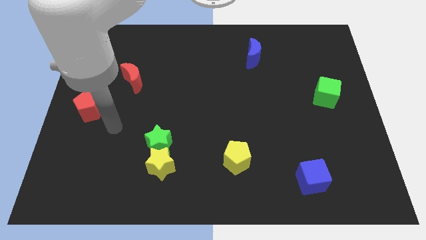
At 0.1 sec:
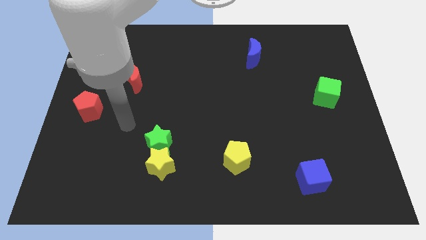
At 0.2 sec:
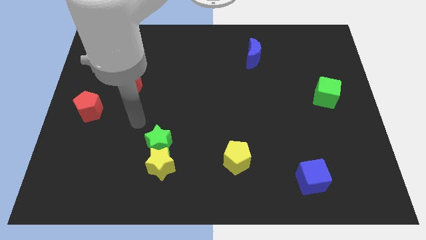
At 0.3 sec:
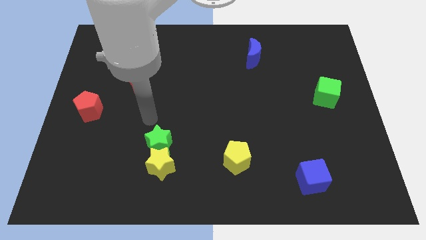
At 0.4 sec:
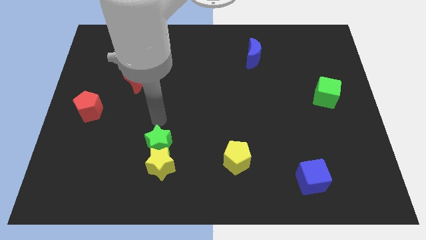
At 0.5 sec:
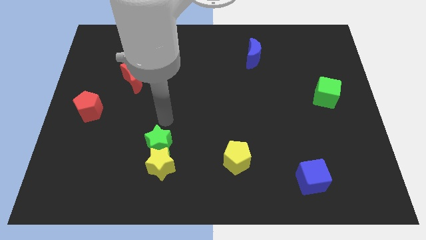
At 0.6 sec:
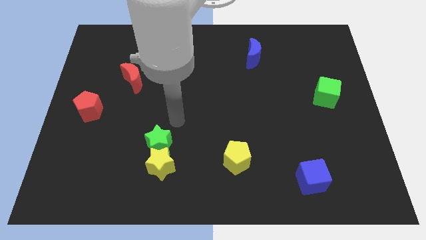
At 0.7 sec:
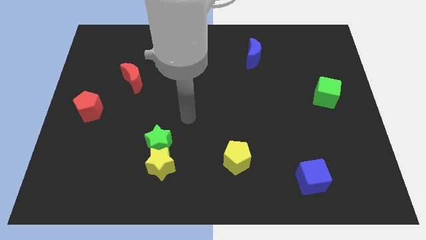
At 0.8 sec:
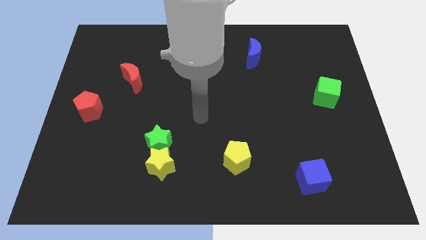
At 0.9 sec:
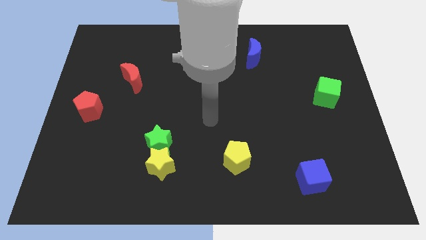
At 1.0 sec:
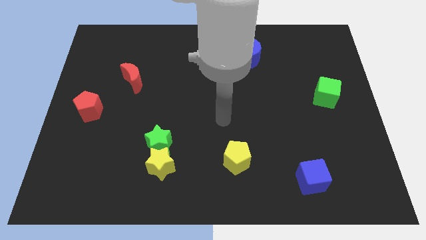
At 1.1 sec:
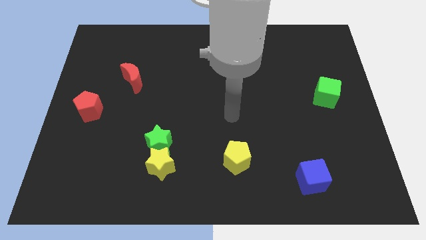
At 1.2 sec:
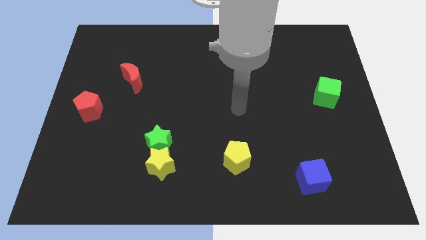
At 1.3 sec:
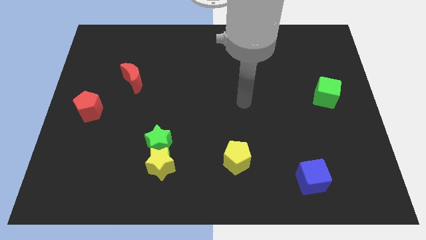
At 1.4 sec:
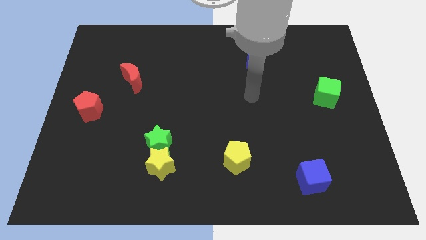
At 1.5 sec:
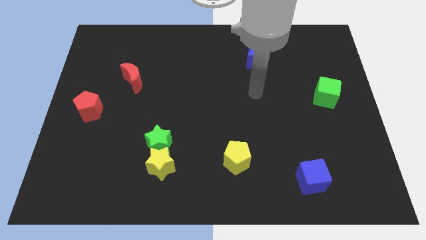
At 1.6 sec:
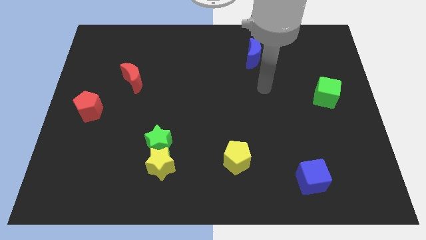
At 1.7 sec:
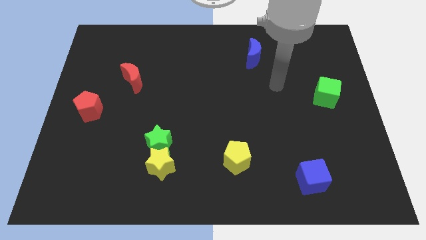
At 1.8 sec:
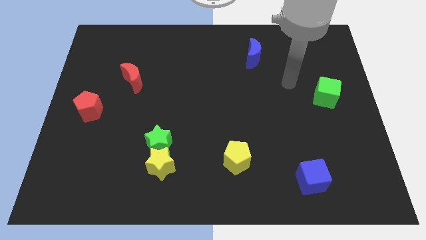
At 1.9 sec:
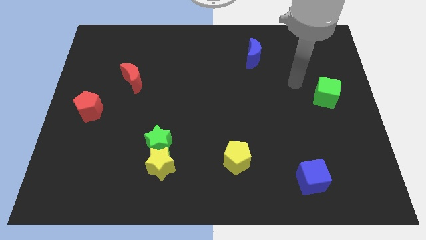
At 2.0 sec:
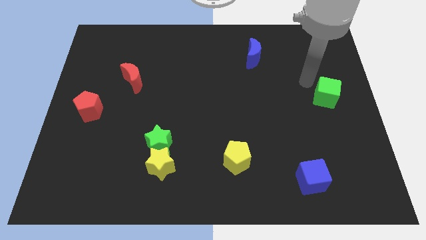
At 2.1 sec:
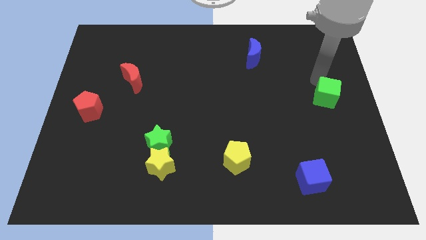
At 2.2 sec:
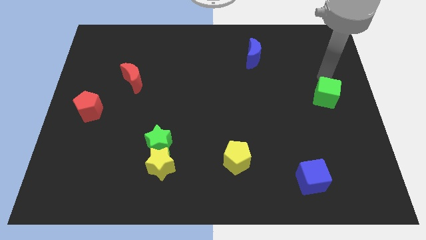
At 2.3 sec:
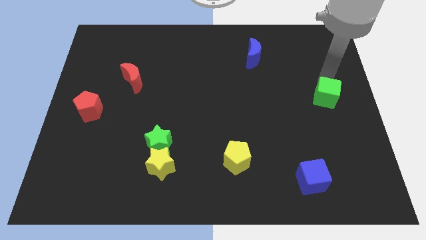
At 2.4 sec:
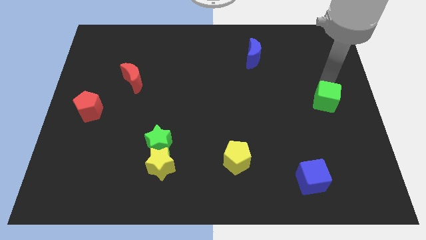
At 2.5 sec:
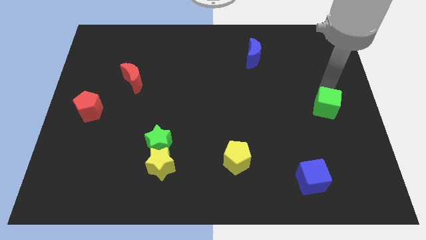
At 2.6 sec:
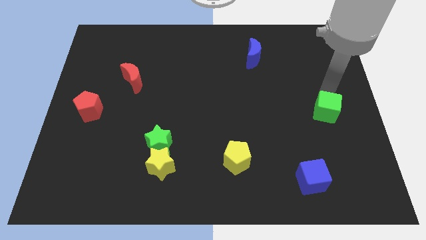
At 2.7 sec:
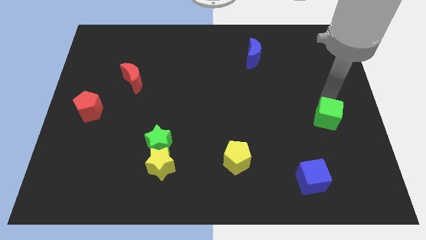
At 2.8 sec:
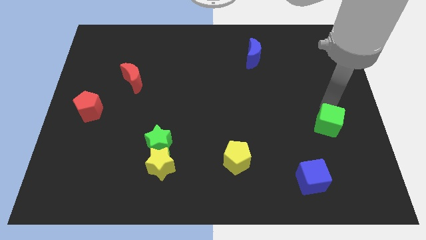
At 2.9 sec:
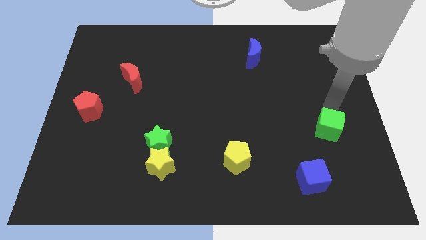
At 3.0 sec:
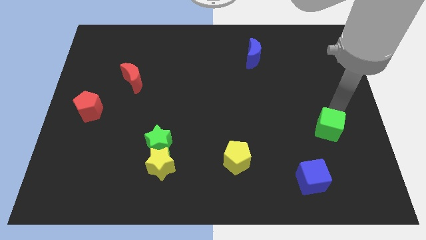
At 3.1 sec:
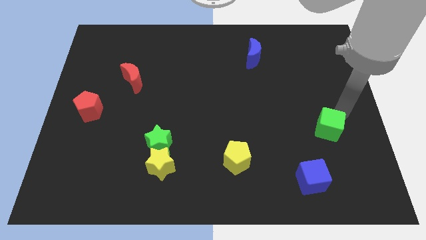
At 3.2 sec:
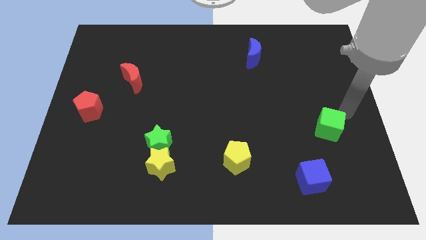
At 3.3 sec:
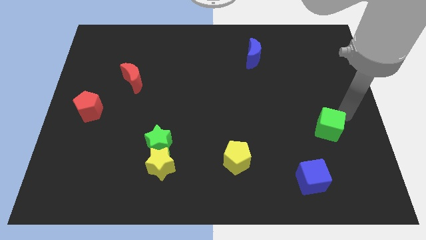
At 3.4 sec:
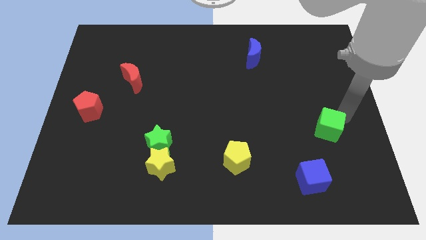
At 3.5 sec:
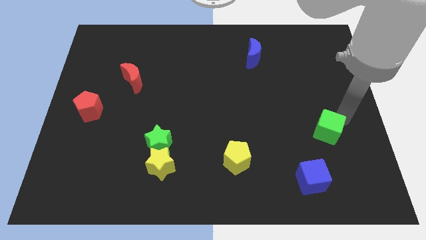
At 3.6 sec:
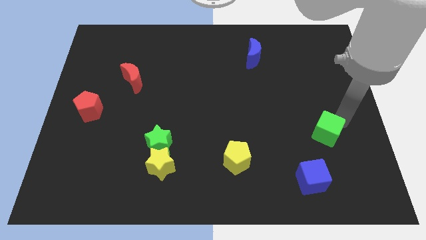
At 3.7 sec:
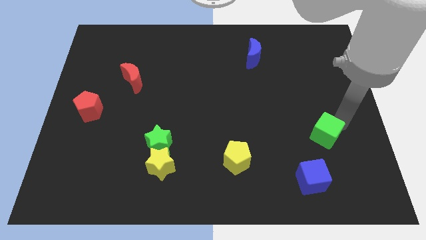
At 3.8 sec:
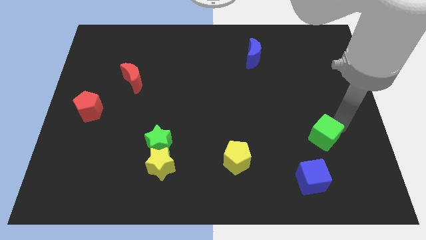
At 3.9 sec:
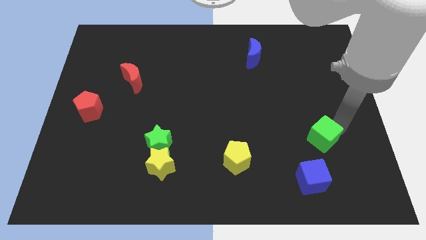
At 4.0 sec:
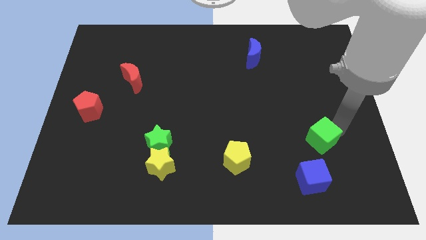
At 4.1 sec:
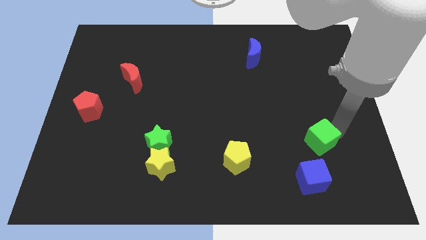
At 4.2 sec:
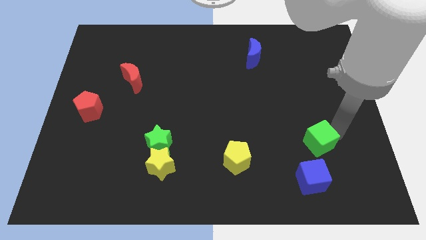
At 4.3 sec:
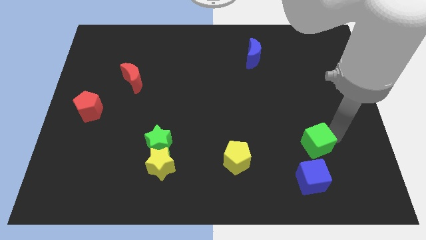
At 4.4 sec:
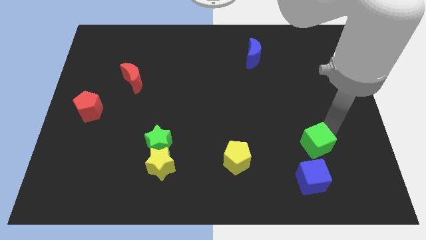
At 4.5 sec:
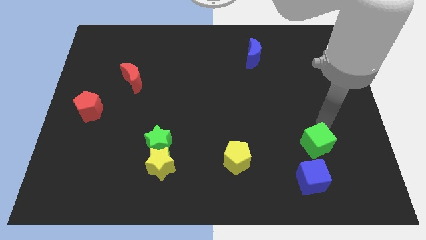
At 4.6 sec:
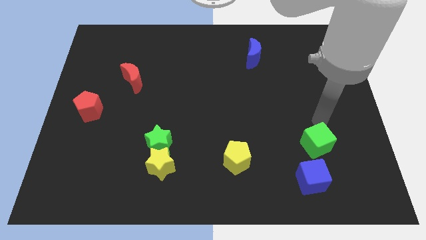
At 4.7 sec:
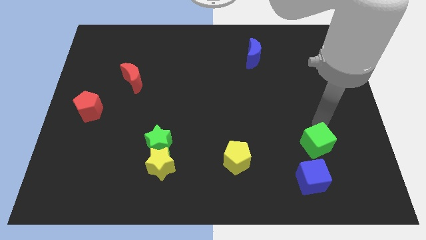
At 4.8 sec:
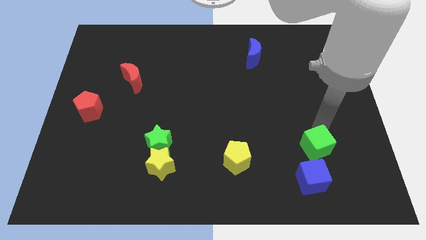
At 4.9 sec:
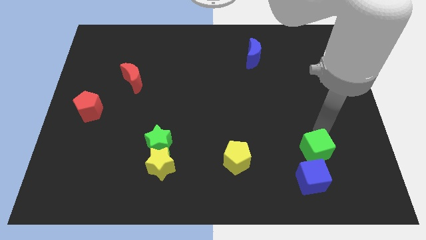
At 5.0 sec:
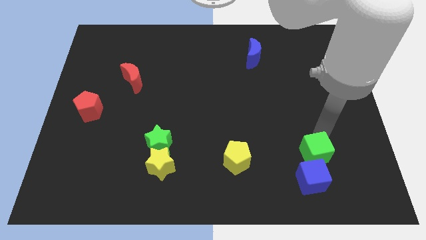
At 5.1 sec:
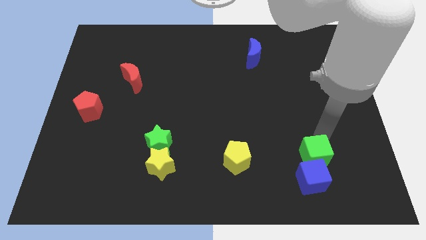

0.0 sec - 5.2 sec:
slide the green cube to the blue cube

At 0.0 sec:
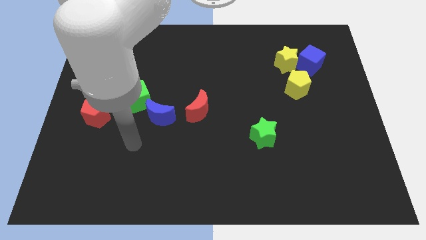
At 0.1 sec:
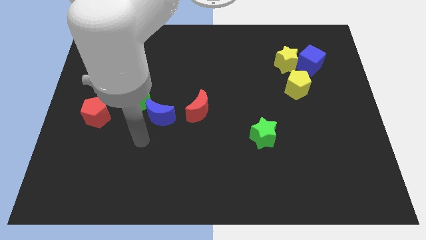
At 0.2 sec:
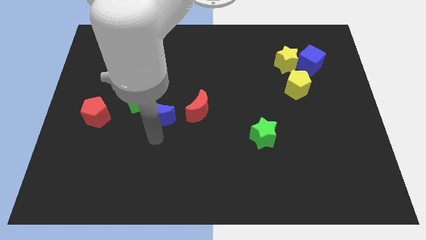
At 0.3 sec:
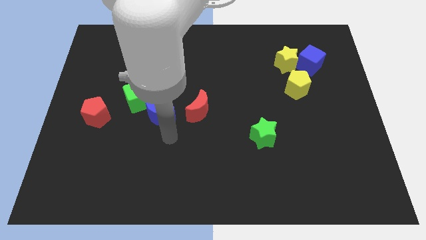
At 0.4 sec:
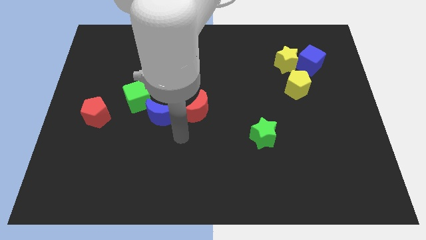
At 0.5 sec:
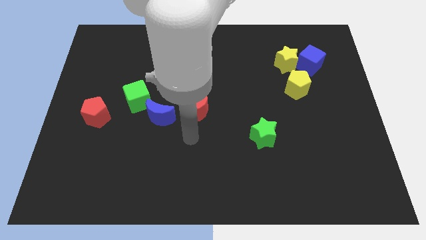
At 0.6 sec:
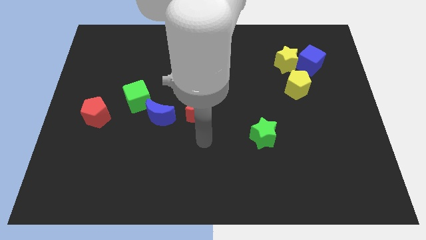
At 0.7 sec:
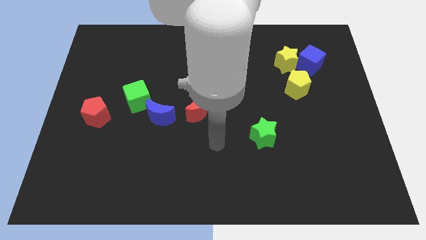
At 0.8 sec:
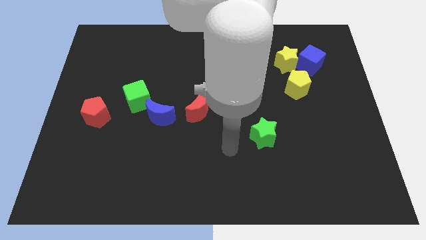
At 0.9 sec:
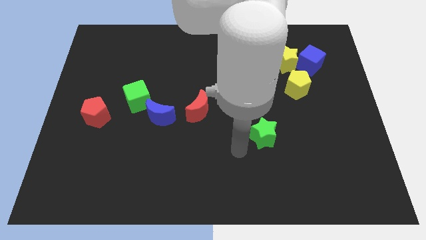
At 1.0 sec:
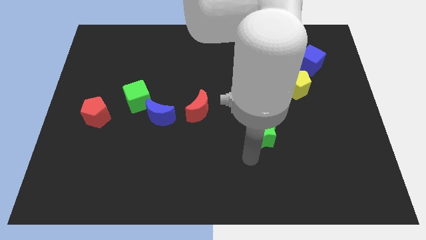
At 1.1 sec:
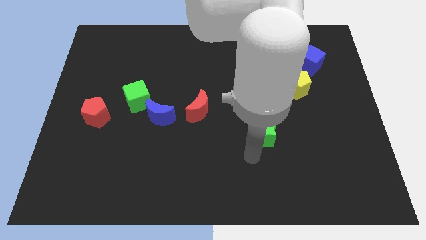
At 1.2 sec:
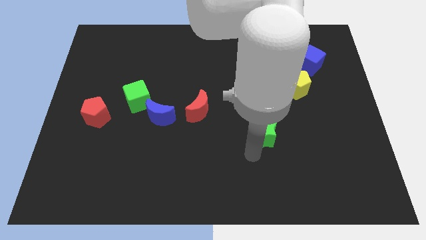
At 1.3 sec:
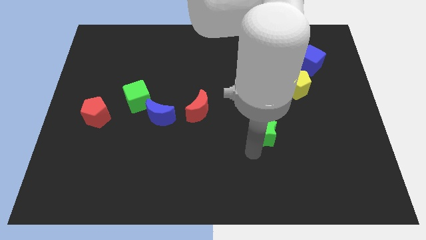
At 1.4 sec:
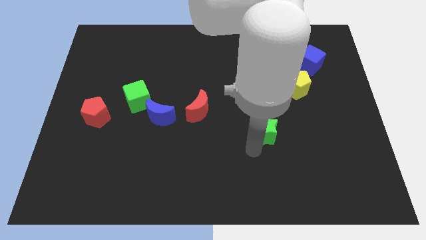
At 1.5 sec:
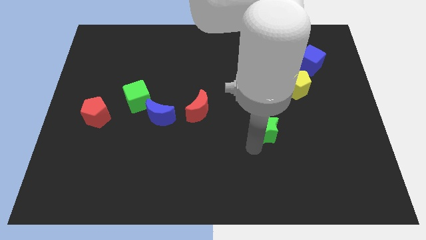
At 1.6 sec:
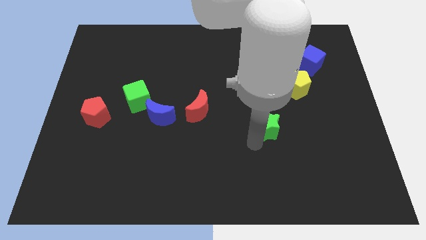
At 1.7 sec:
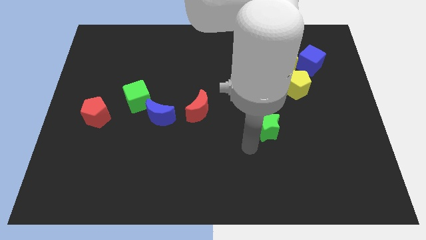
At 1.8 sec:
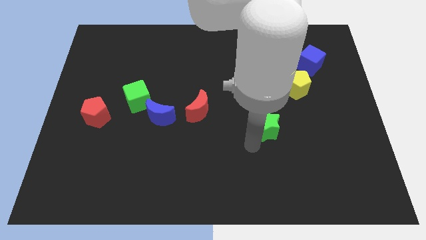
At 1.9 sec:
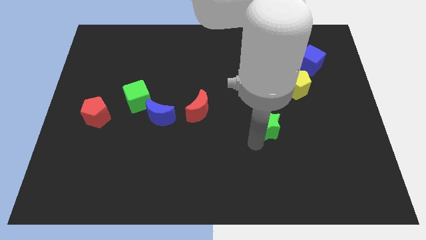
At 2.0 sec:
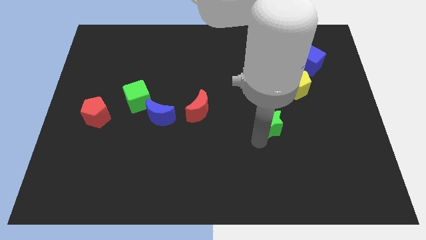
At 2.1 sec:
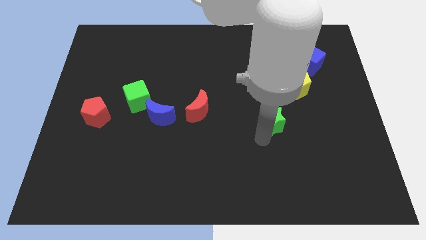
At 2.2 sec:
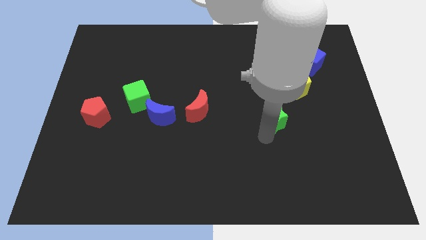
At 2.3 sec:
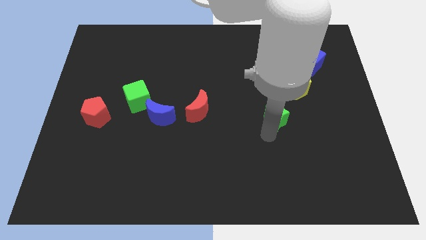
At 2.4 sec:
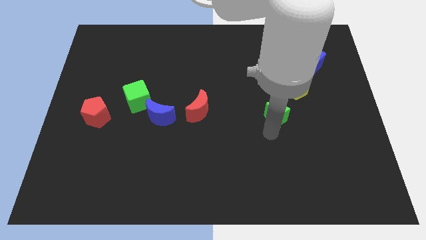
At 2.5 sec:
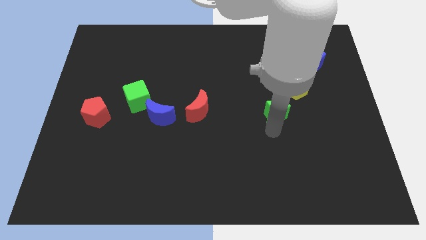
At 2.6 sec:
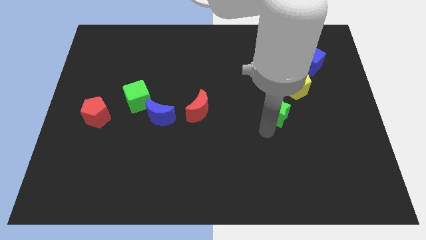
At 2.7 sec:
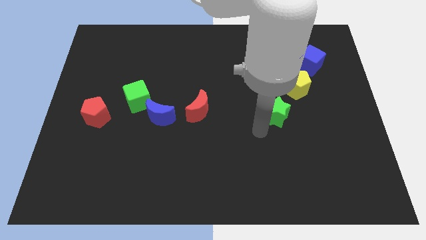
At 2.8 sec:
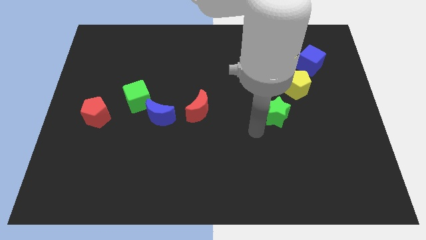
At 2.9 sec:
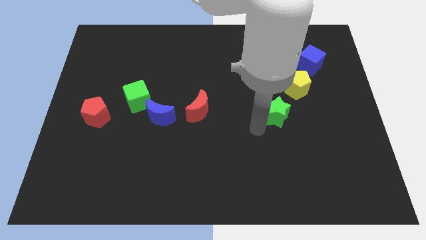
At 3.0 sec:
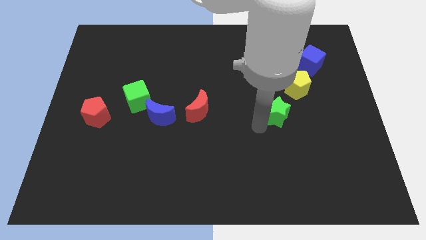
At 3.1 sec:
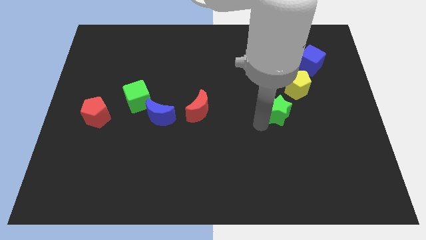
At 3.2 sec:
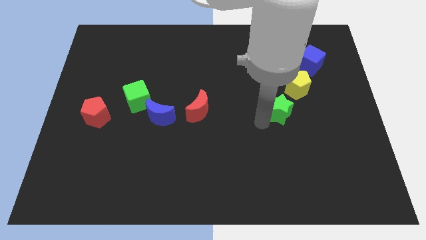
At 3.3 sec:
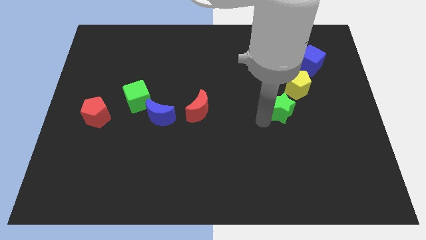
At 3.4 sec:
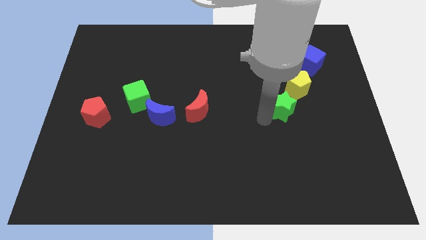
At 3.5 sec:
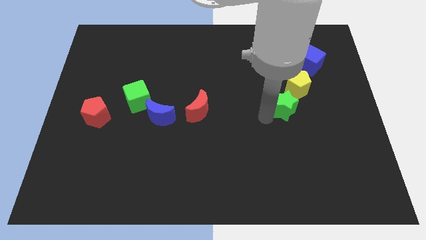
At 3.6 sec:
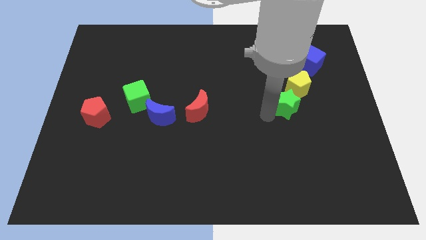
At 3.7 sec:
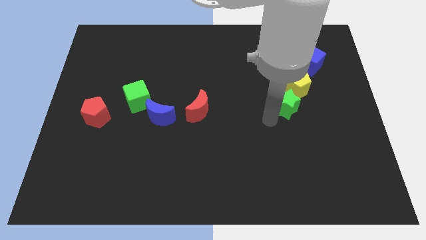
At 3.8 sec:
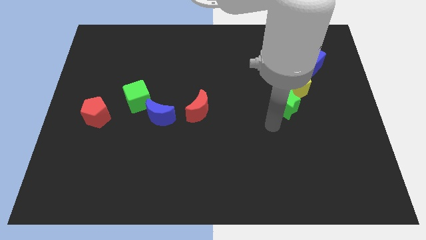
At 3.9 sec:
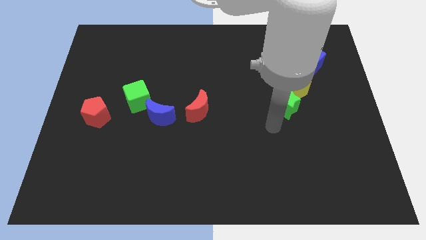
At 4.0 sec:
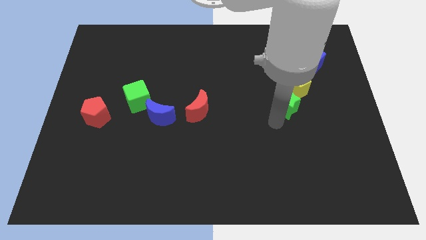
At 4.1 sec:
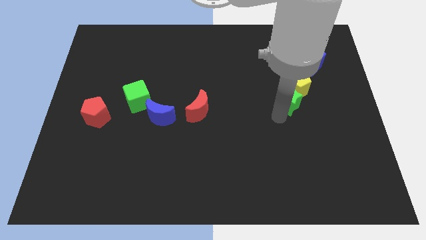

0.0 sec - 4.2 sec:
move the green star to the yellow pentagon
